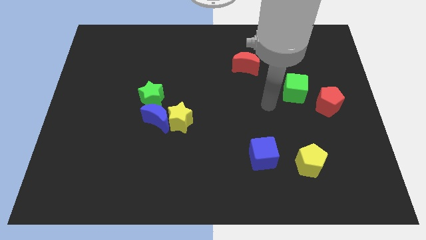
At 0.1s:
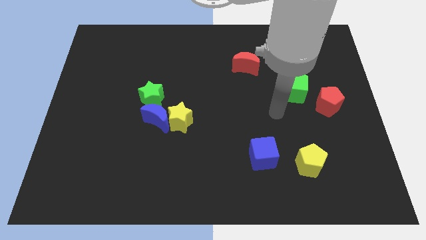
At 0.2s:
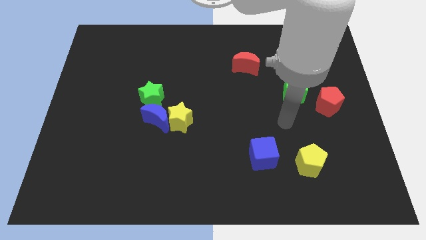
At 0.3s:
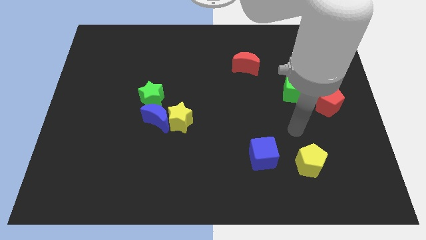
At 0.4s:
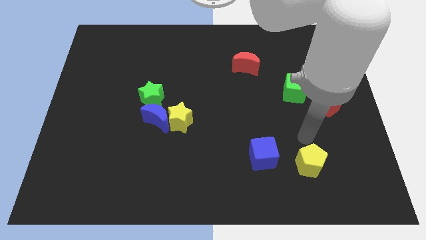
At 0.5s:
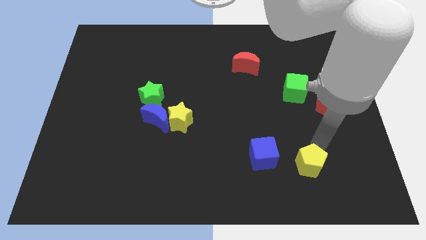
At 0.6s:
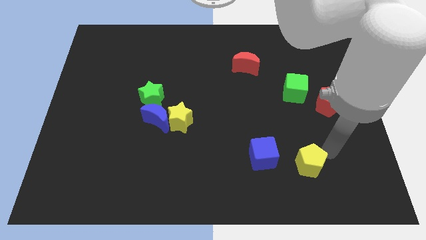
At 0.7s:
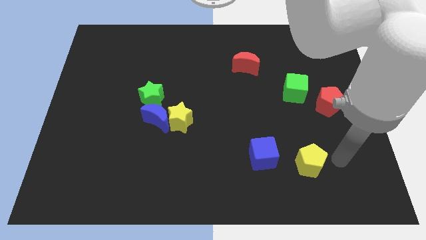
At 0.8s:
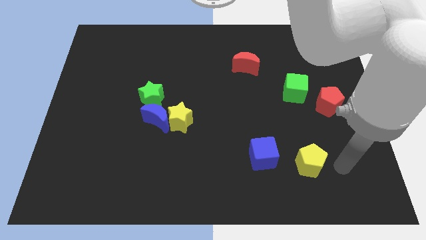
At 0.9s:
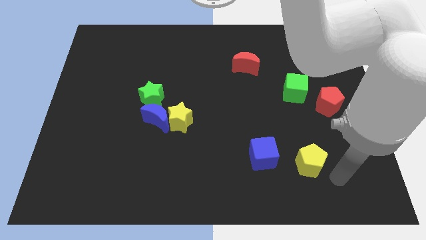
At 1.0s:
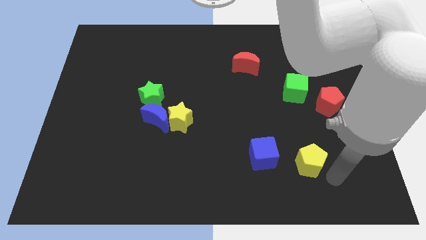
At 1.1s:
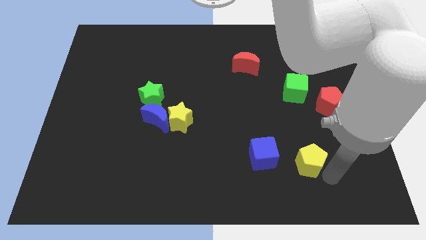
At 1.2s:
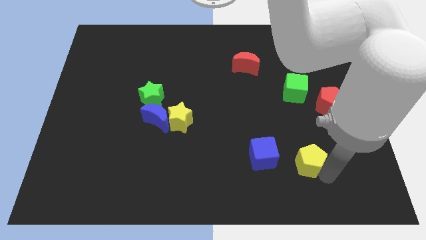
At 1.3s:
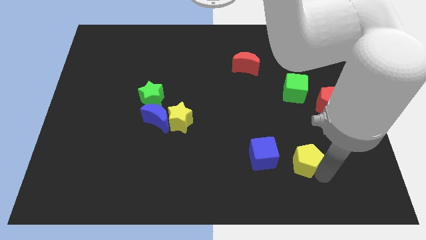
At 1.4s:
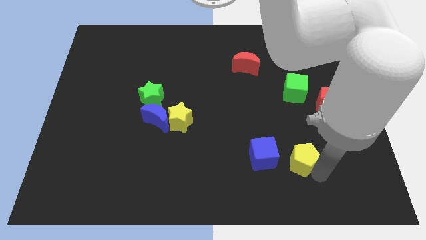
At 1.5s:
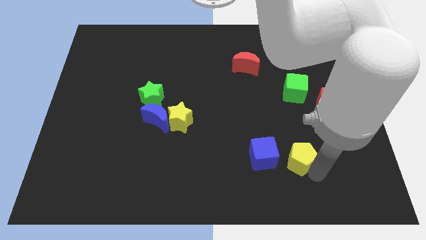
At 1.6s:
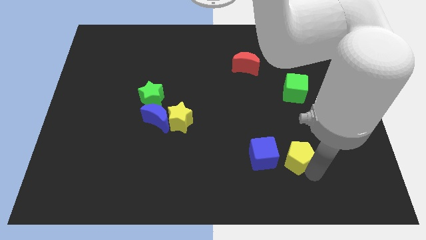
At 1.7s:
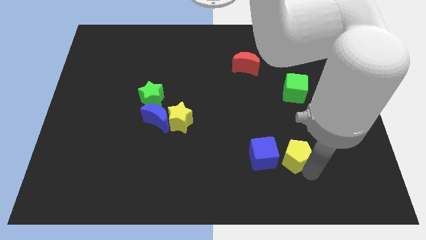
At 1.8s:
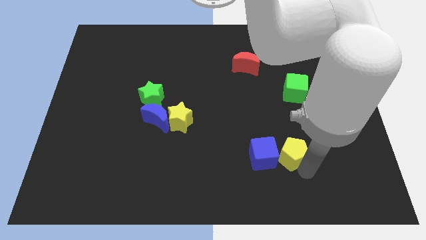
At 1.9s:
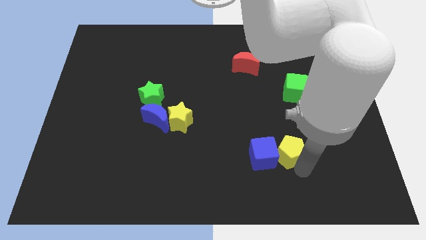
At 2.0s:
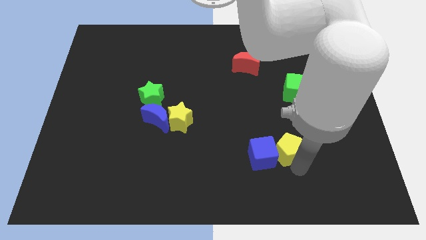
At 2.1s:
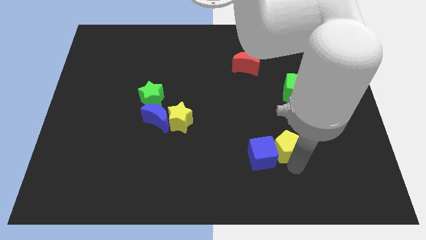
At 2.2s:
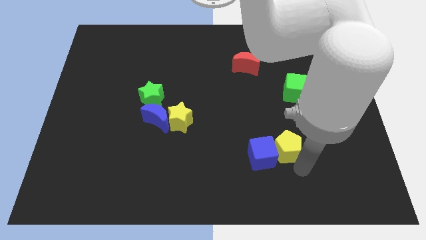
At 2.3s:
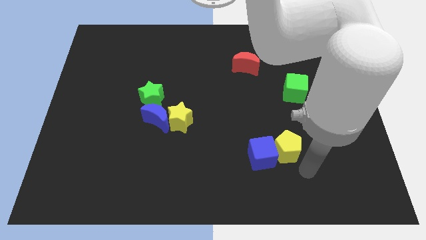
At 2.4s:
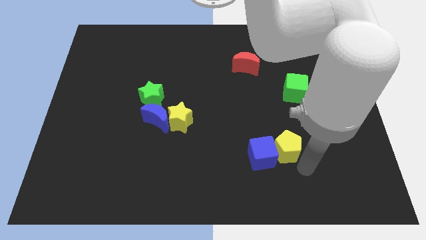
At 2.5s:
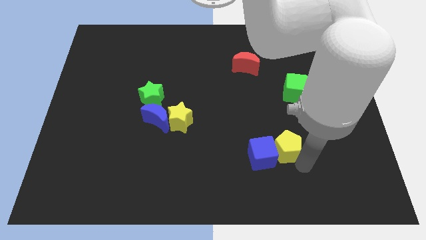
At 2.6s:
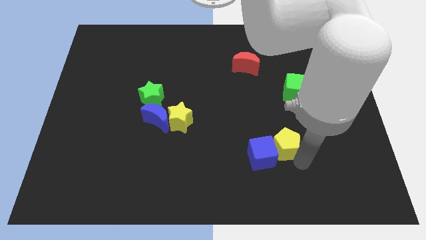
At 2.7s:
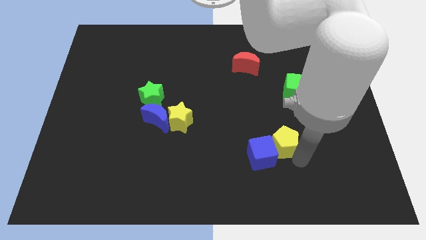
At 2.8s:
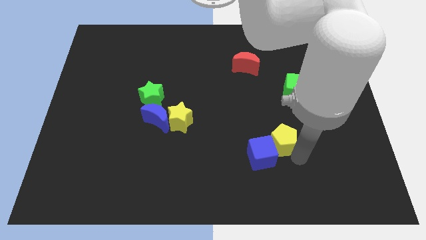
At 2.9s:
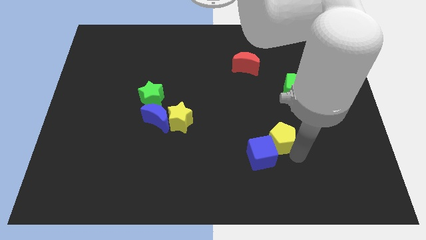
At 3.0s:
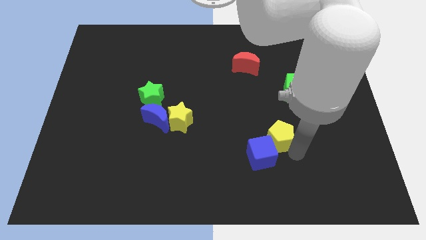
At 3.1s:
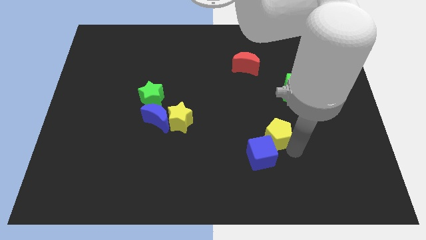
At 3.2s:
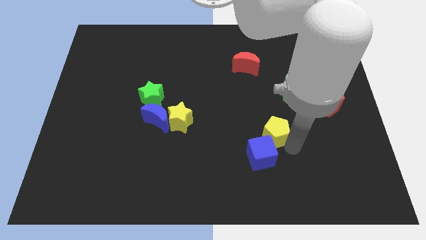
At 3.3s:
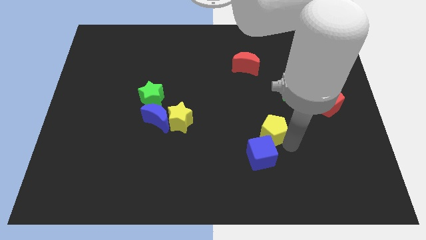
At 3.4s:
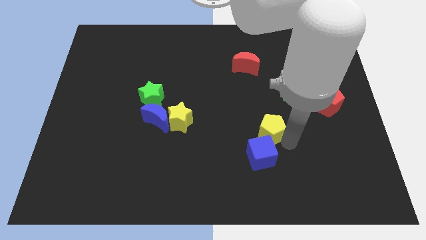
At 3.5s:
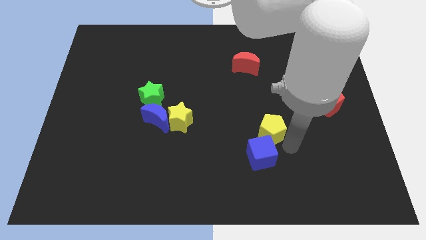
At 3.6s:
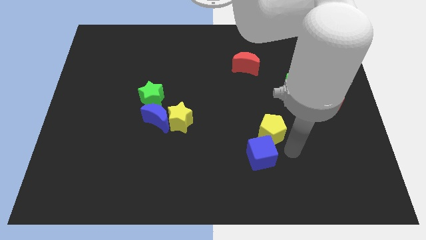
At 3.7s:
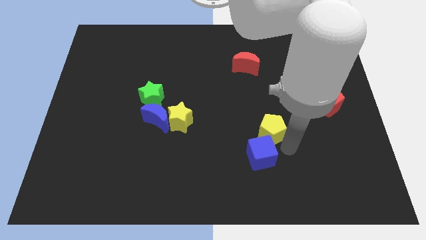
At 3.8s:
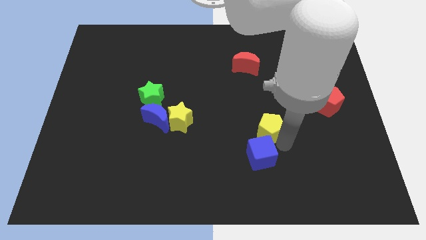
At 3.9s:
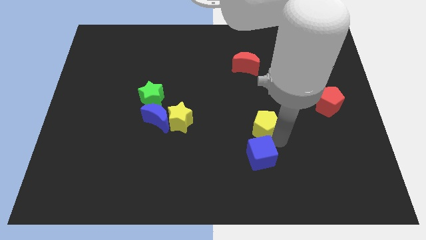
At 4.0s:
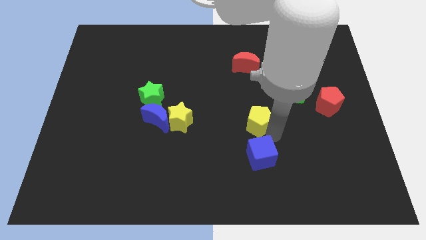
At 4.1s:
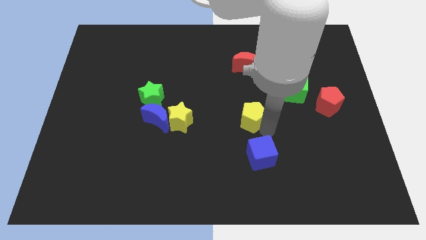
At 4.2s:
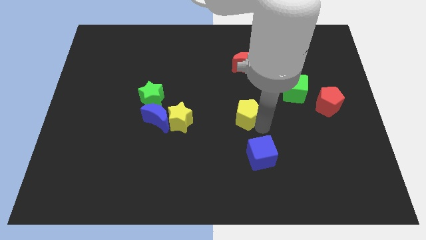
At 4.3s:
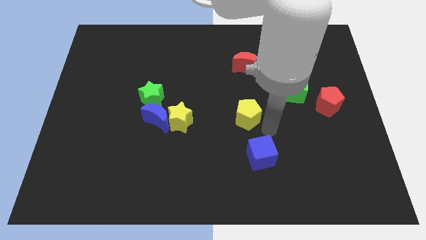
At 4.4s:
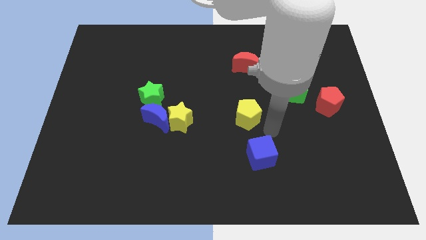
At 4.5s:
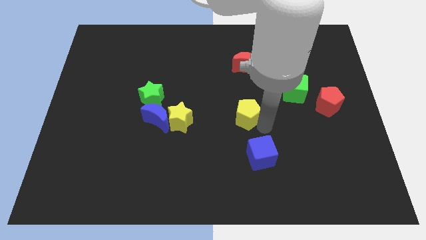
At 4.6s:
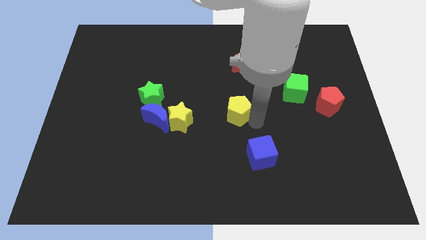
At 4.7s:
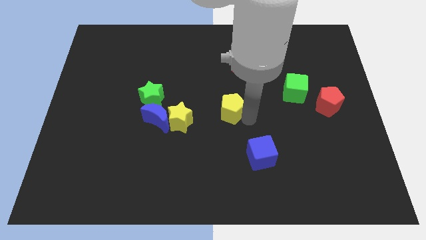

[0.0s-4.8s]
push the yellow pentagon upwards and then to the left

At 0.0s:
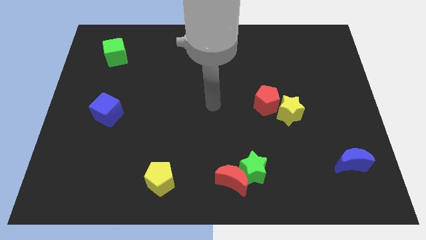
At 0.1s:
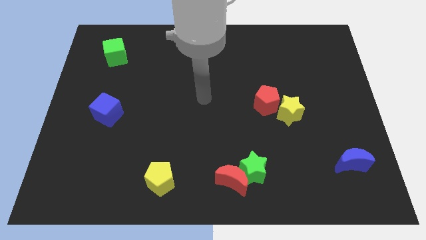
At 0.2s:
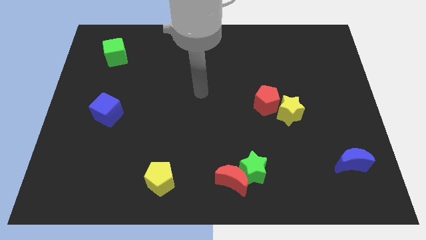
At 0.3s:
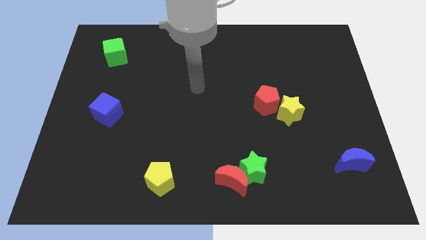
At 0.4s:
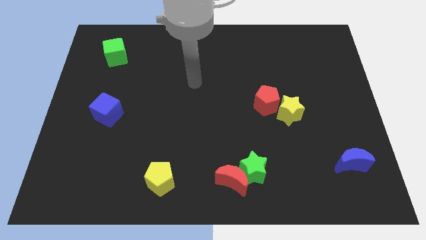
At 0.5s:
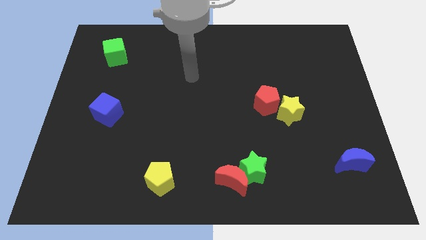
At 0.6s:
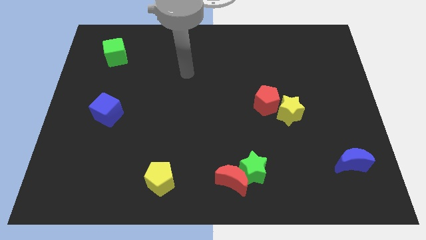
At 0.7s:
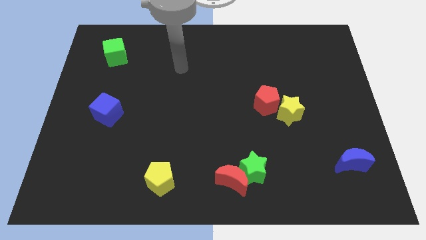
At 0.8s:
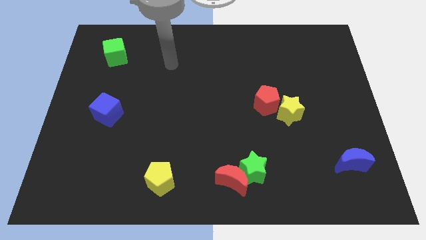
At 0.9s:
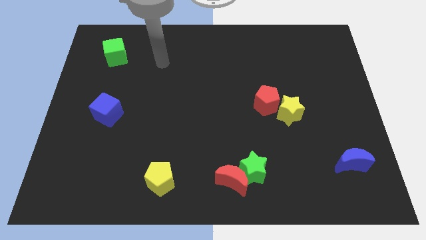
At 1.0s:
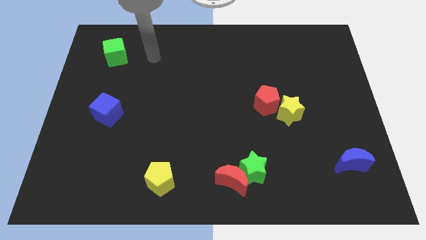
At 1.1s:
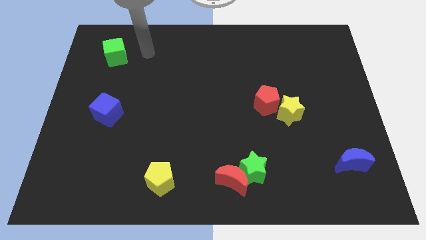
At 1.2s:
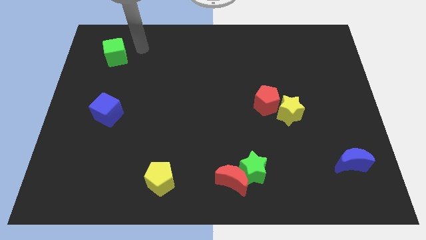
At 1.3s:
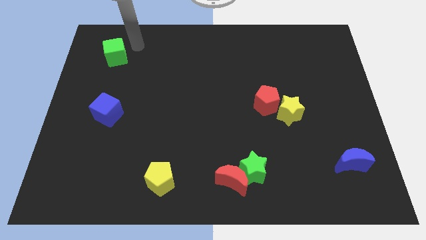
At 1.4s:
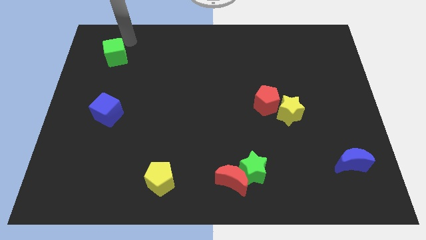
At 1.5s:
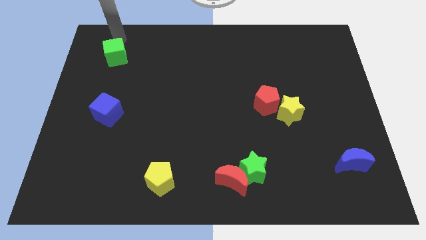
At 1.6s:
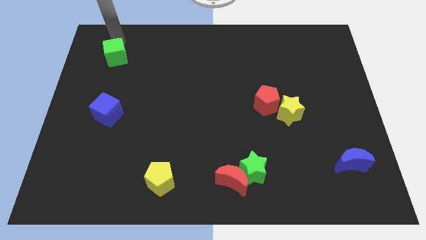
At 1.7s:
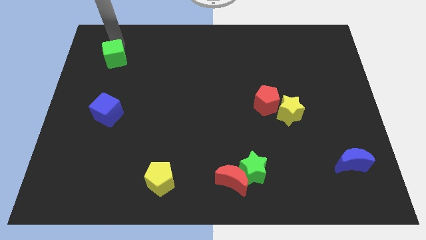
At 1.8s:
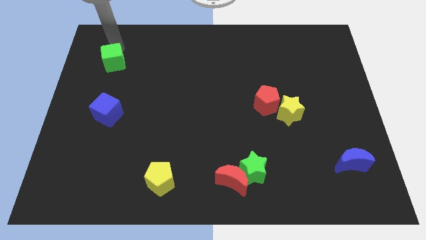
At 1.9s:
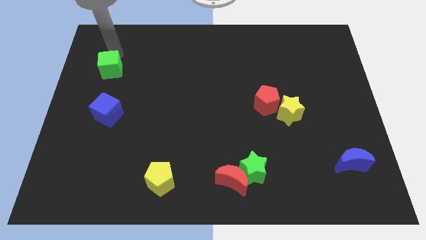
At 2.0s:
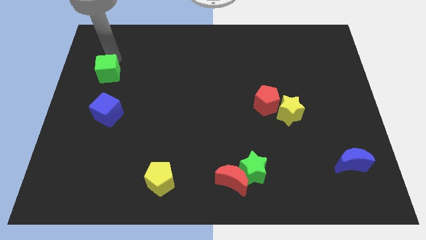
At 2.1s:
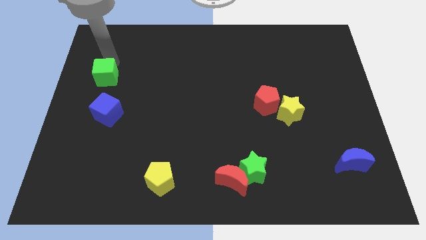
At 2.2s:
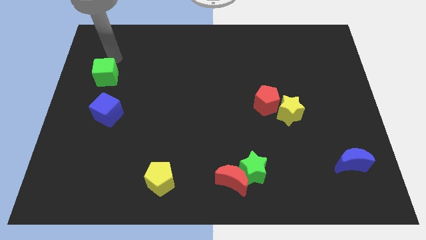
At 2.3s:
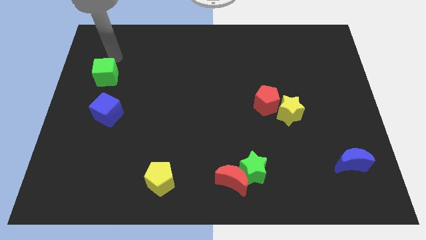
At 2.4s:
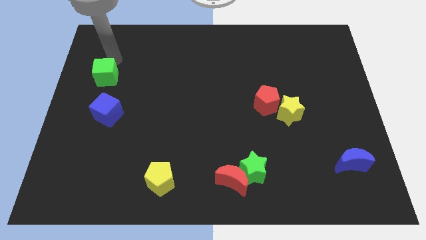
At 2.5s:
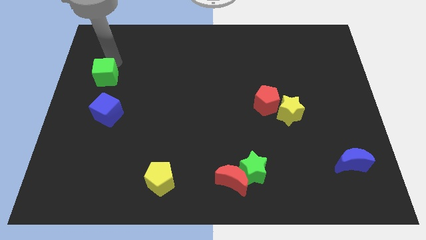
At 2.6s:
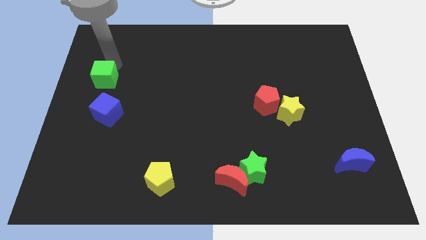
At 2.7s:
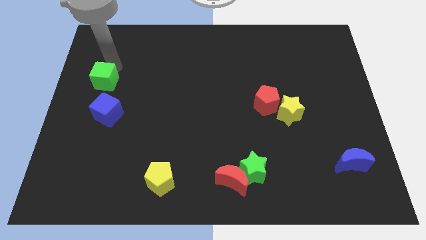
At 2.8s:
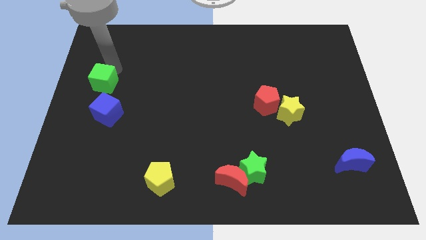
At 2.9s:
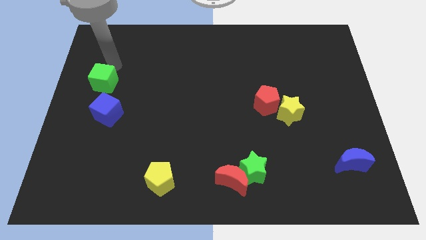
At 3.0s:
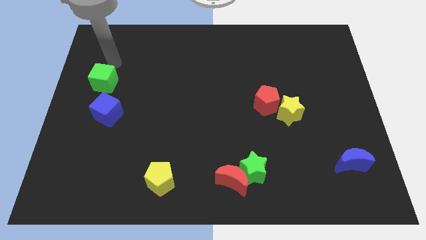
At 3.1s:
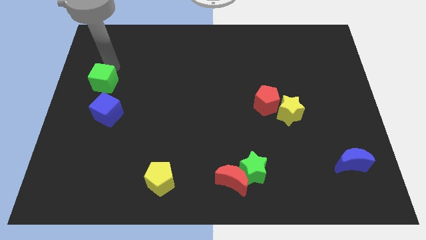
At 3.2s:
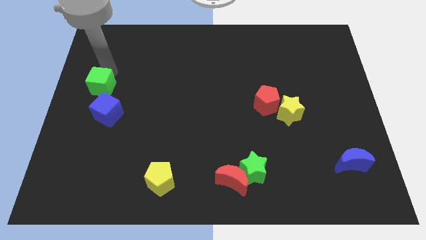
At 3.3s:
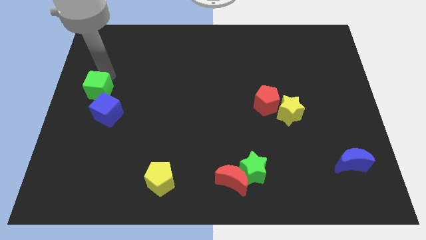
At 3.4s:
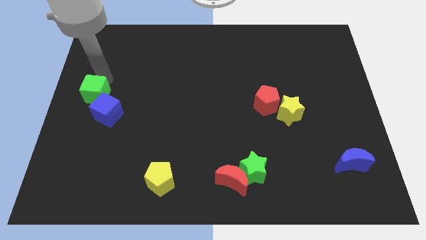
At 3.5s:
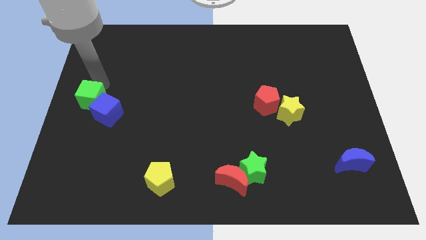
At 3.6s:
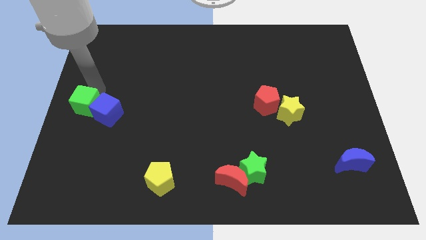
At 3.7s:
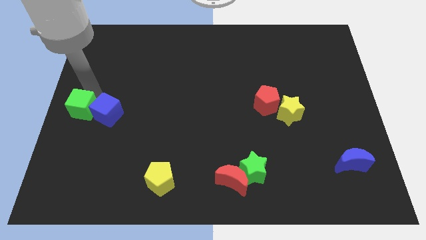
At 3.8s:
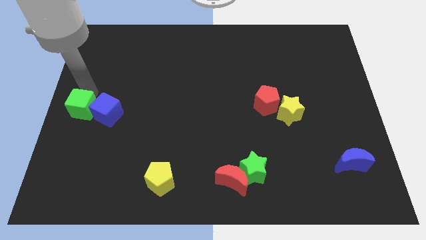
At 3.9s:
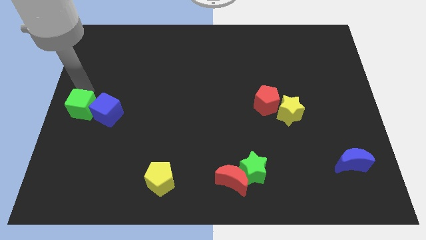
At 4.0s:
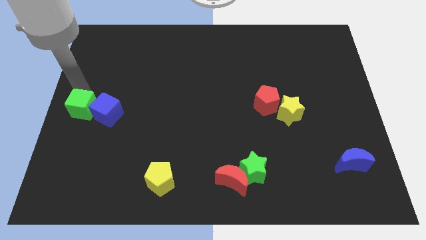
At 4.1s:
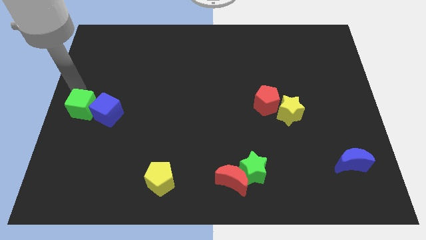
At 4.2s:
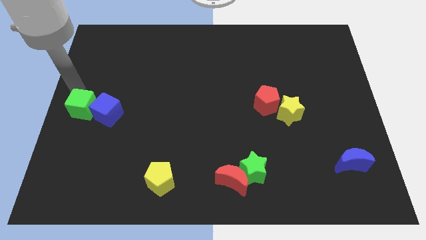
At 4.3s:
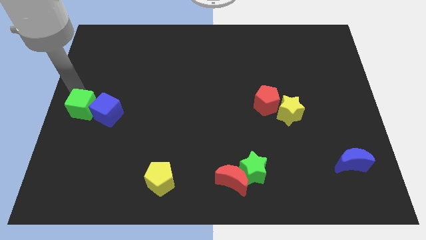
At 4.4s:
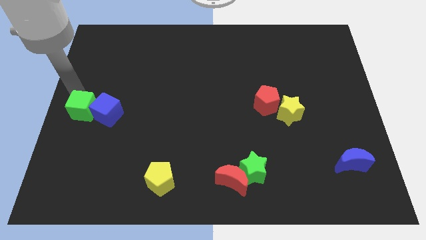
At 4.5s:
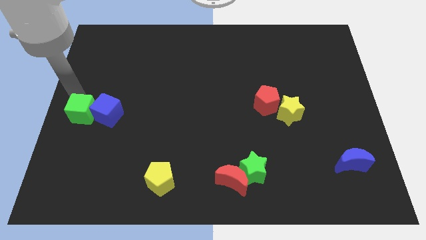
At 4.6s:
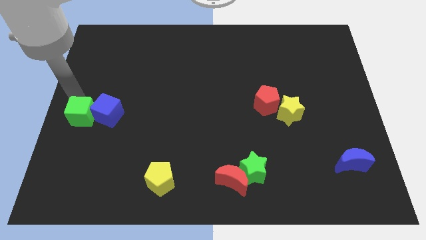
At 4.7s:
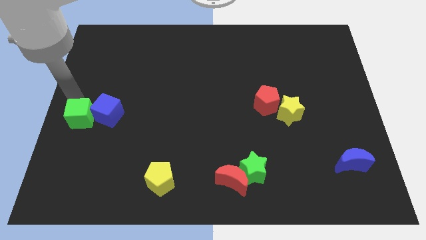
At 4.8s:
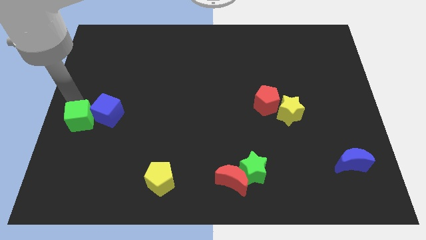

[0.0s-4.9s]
slide the green cube down
